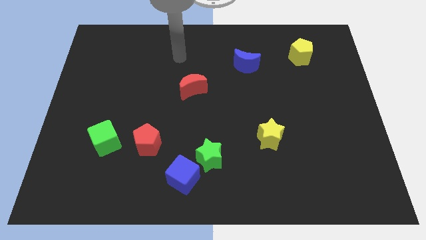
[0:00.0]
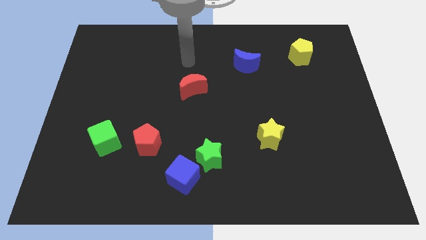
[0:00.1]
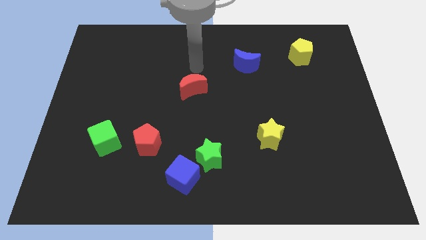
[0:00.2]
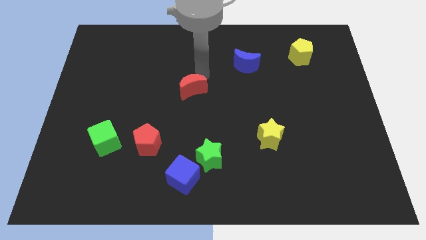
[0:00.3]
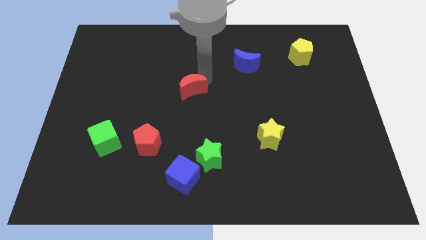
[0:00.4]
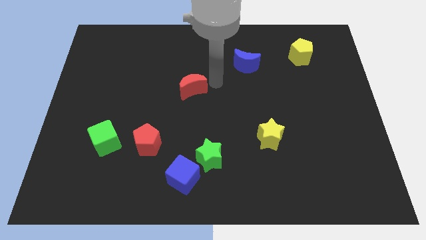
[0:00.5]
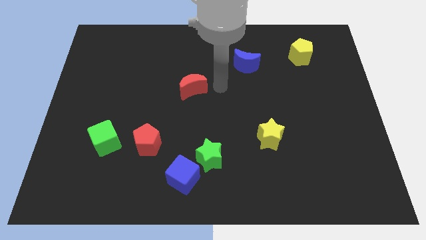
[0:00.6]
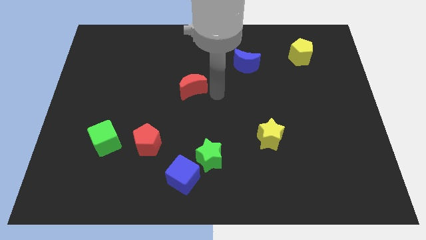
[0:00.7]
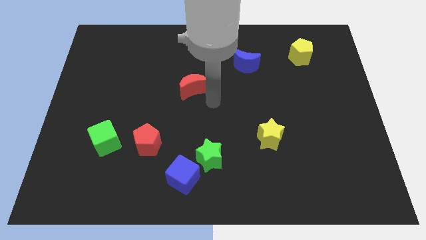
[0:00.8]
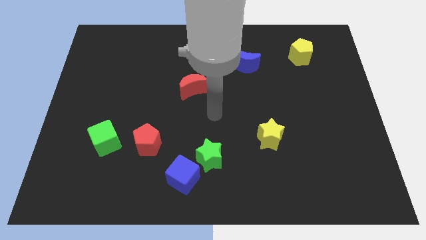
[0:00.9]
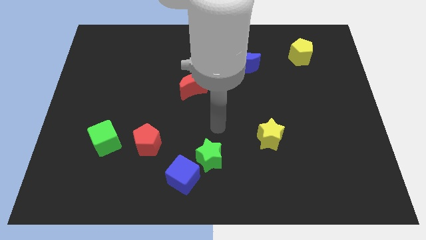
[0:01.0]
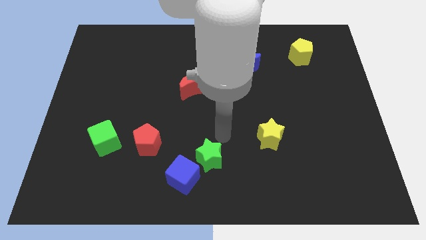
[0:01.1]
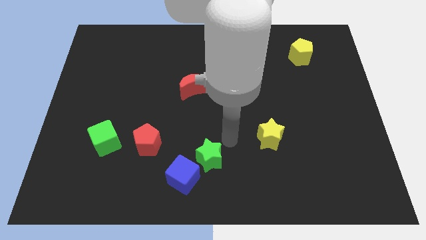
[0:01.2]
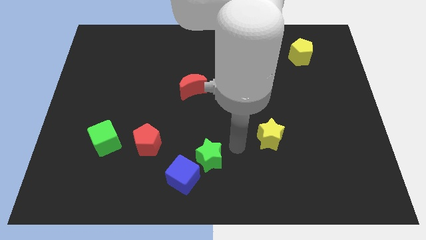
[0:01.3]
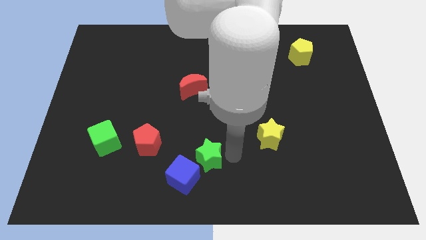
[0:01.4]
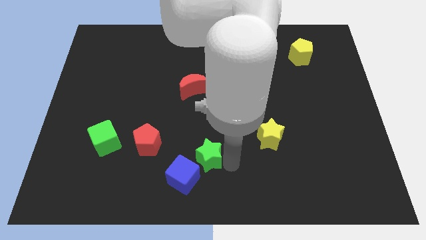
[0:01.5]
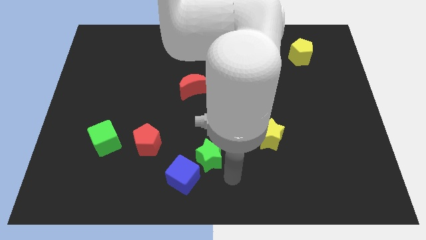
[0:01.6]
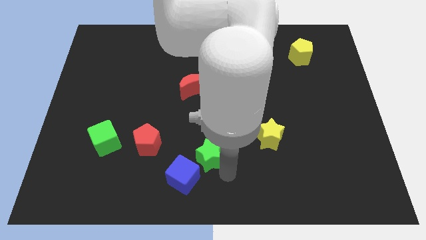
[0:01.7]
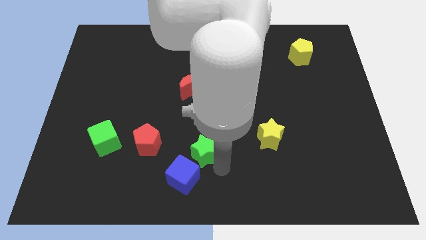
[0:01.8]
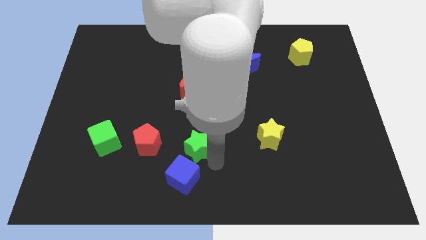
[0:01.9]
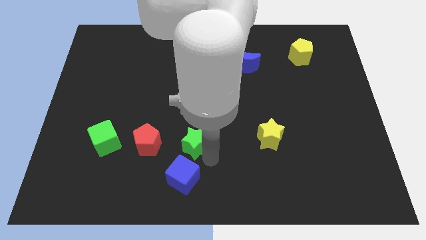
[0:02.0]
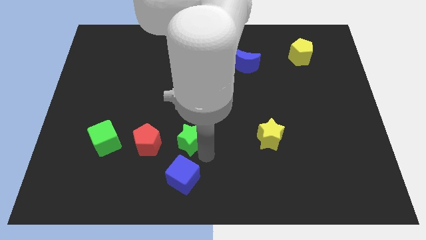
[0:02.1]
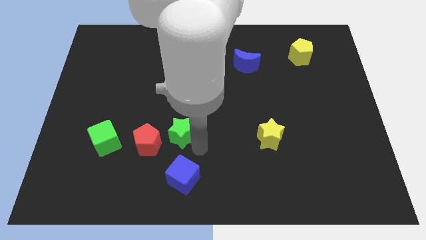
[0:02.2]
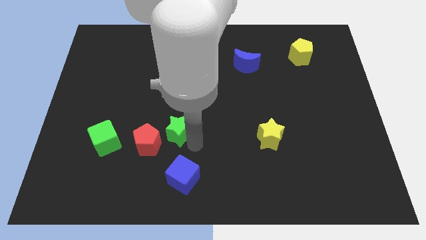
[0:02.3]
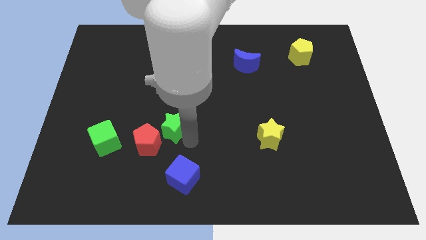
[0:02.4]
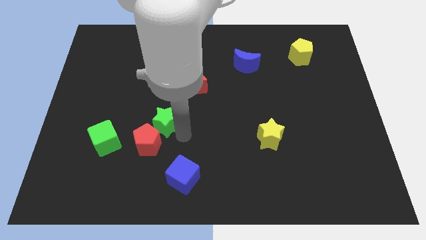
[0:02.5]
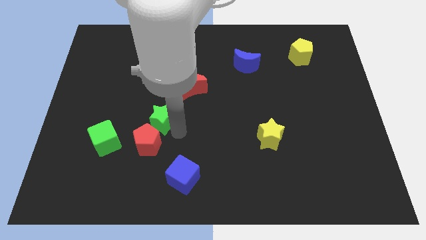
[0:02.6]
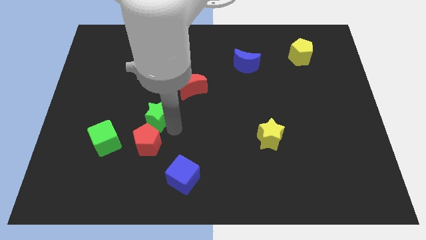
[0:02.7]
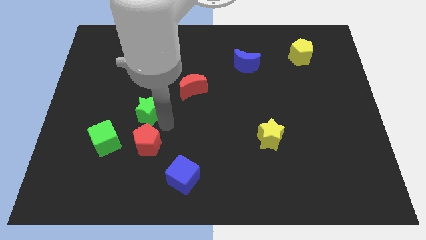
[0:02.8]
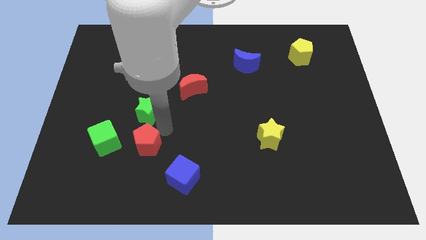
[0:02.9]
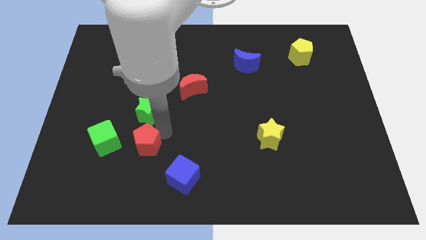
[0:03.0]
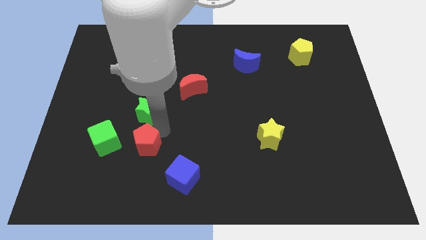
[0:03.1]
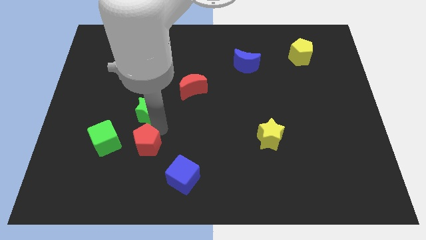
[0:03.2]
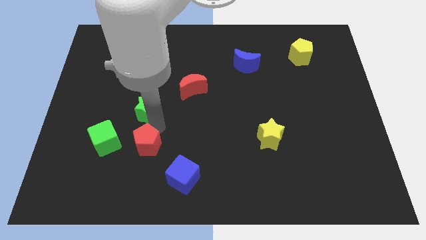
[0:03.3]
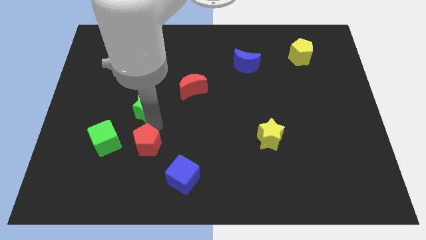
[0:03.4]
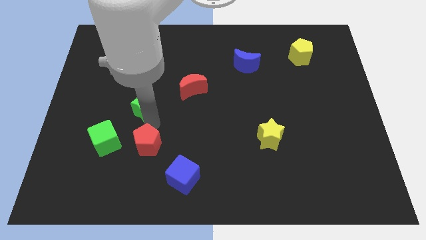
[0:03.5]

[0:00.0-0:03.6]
move the green star upwards and left diagonally

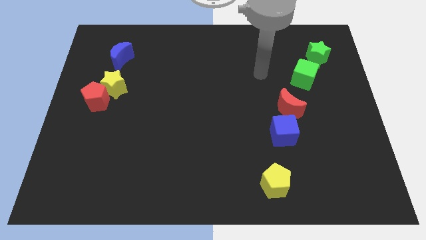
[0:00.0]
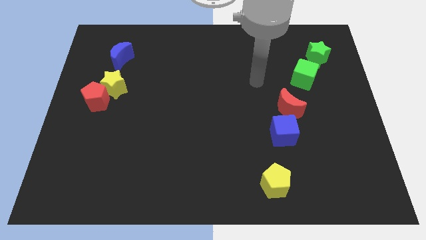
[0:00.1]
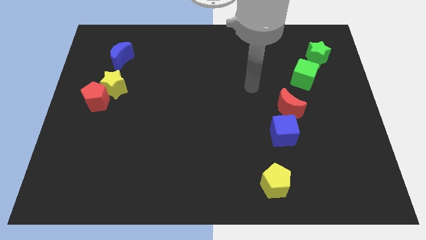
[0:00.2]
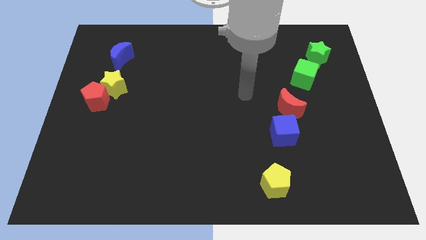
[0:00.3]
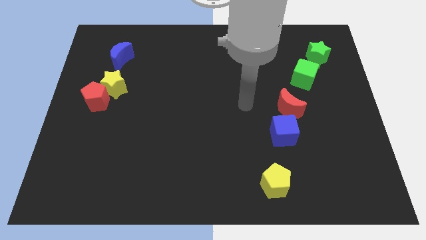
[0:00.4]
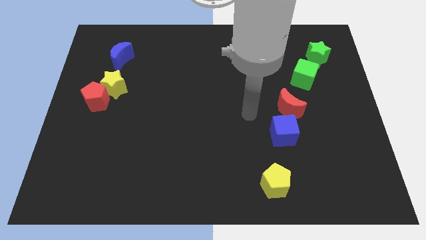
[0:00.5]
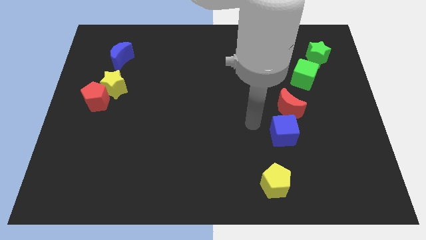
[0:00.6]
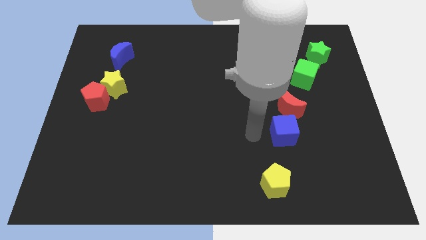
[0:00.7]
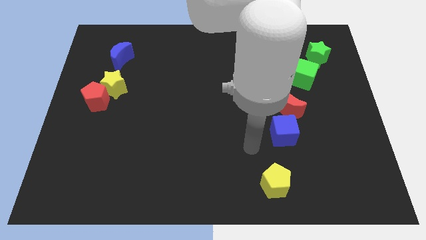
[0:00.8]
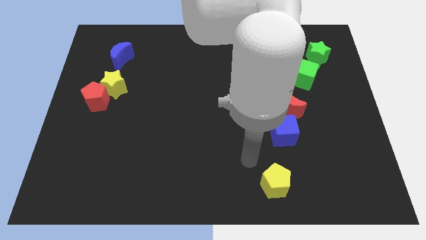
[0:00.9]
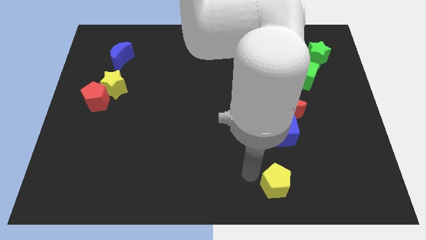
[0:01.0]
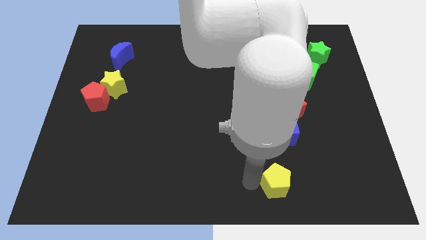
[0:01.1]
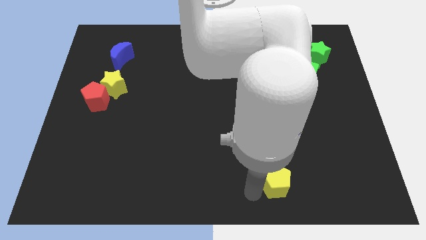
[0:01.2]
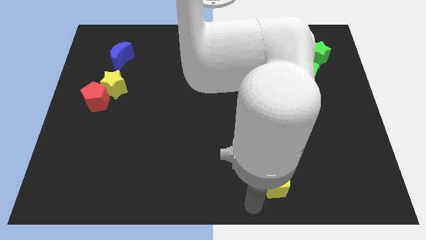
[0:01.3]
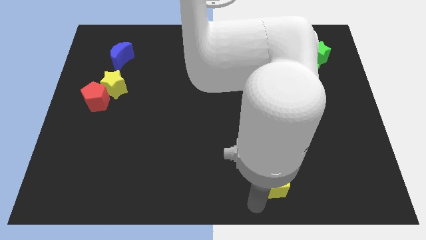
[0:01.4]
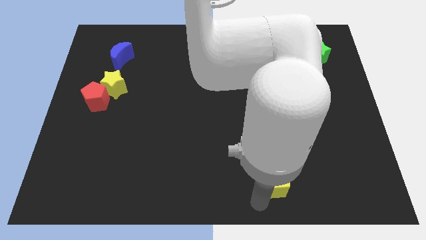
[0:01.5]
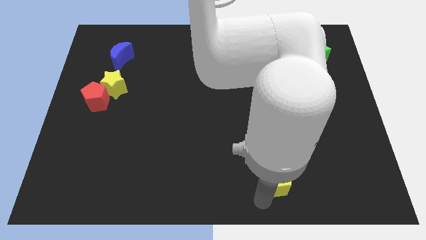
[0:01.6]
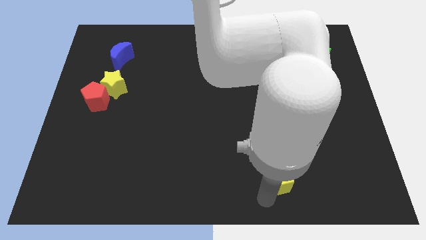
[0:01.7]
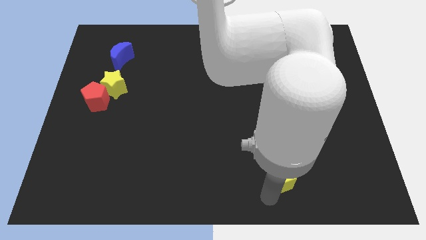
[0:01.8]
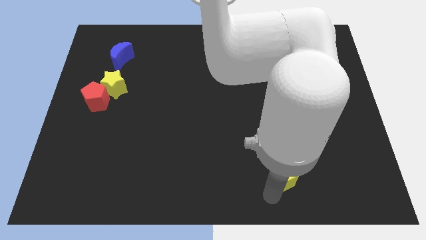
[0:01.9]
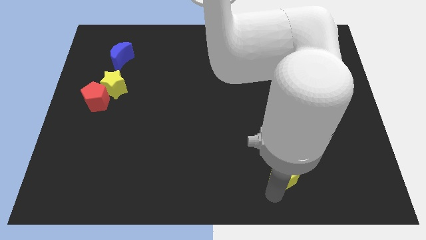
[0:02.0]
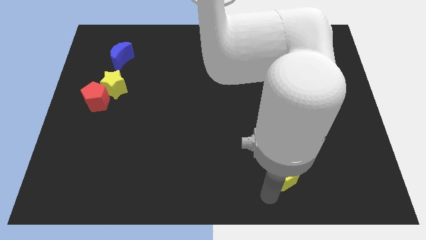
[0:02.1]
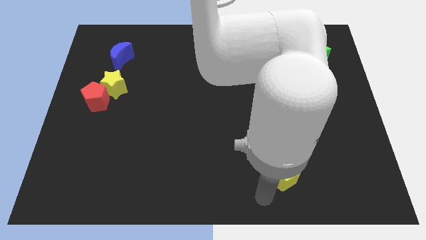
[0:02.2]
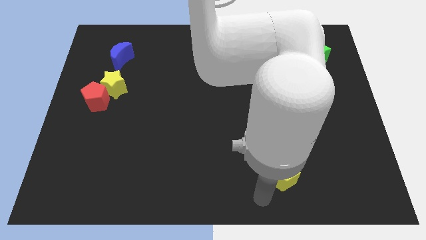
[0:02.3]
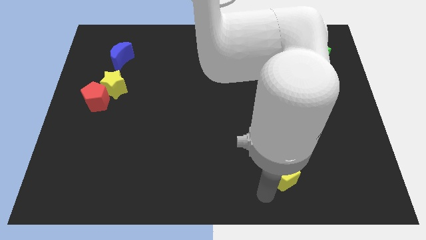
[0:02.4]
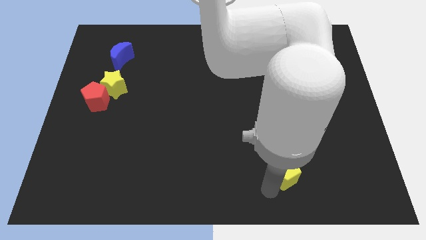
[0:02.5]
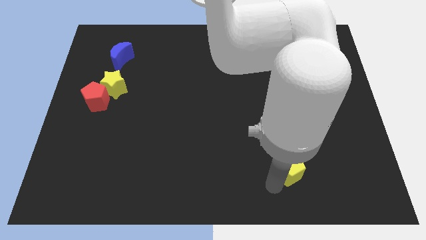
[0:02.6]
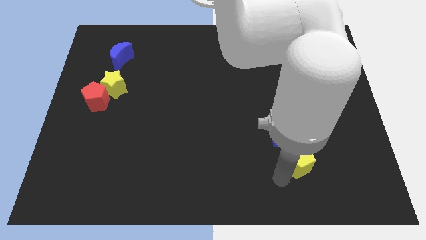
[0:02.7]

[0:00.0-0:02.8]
slide the yellow pentagon a bit up and right diagonally

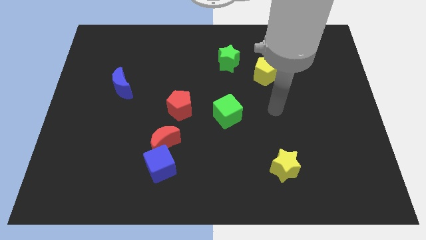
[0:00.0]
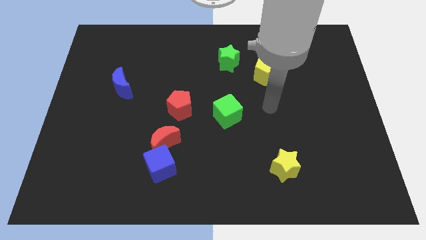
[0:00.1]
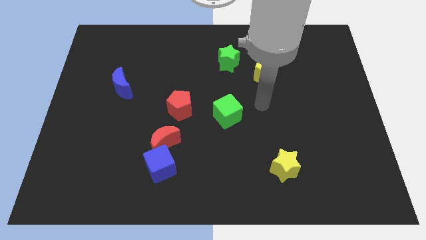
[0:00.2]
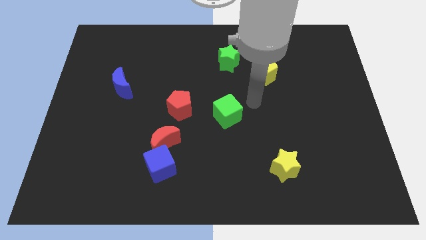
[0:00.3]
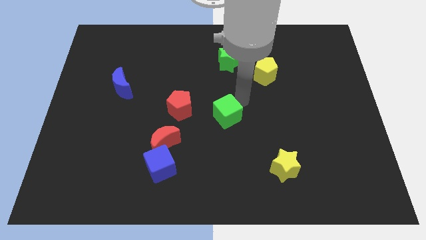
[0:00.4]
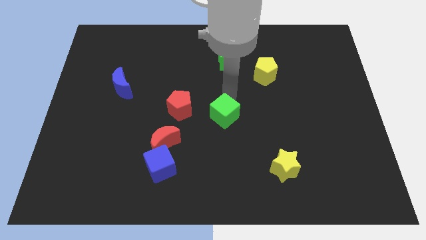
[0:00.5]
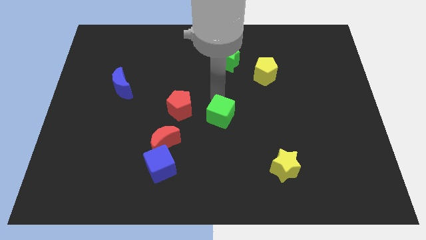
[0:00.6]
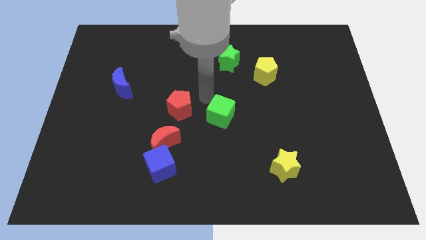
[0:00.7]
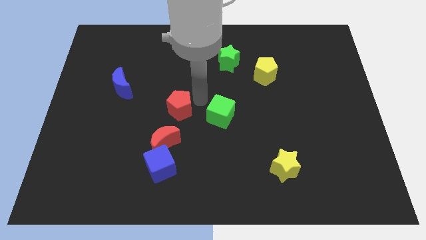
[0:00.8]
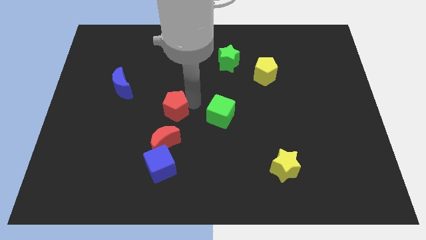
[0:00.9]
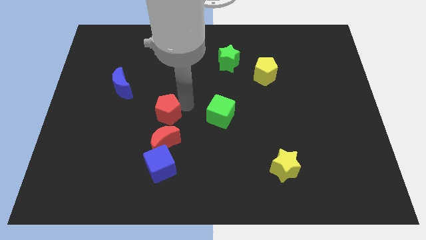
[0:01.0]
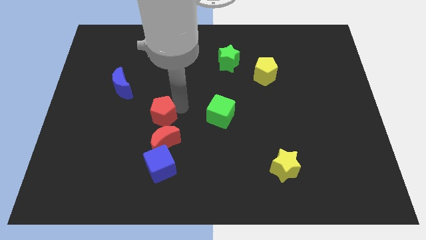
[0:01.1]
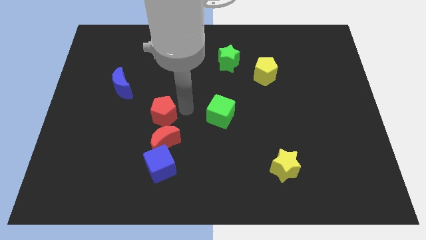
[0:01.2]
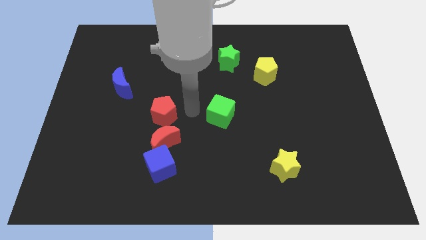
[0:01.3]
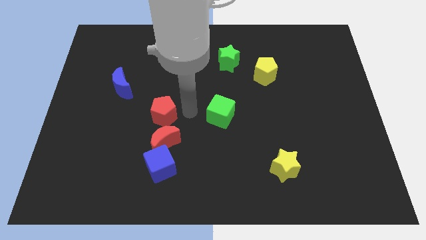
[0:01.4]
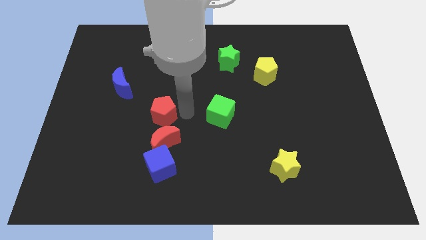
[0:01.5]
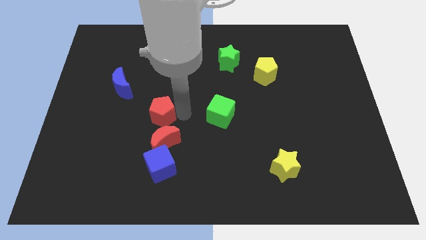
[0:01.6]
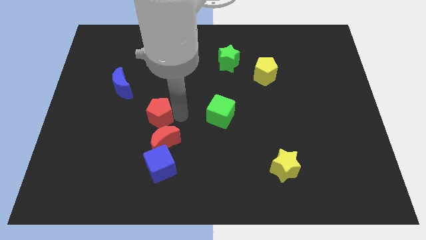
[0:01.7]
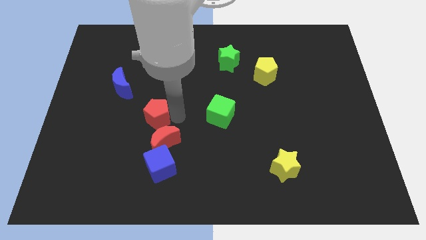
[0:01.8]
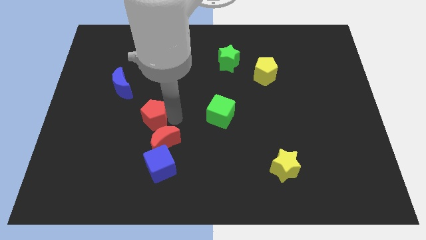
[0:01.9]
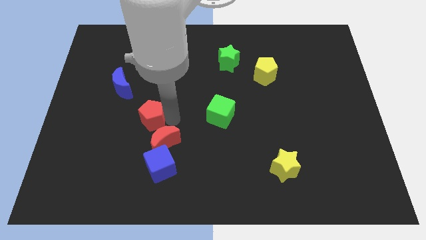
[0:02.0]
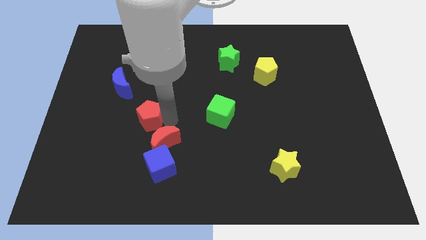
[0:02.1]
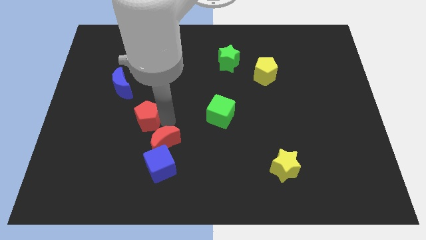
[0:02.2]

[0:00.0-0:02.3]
move the red pentagon somewhat to the left
